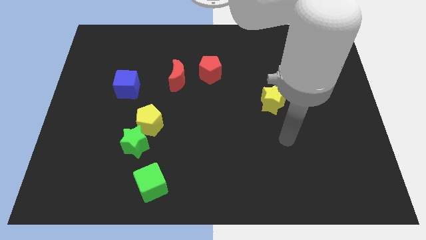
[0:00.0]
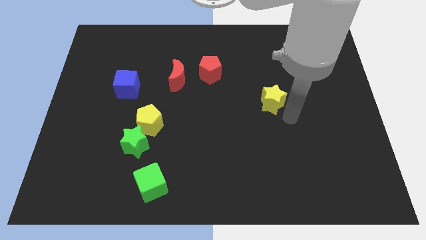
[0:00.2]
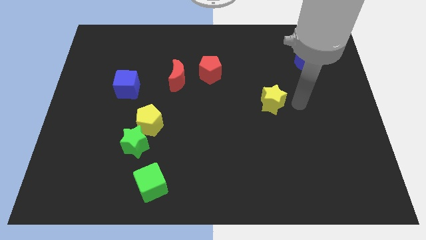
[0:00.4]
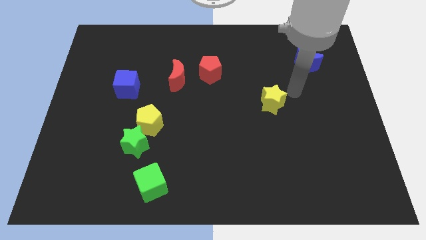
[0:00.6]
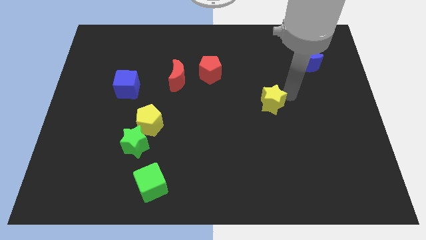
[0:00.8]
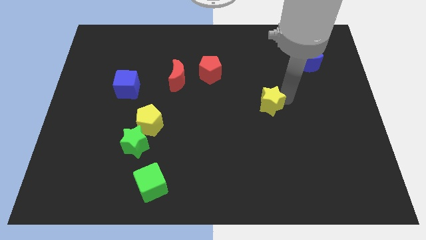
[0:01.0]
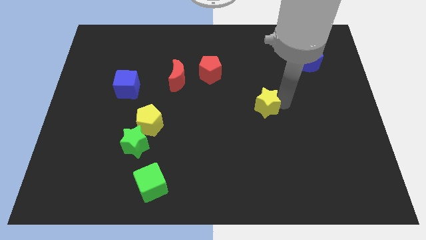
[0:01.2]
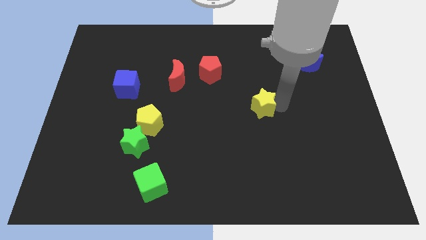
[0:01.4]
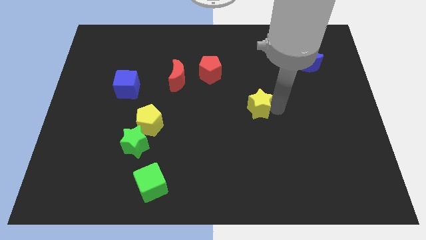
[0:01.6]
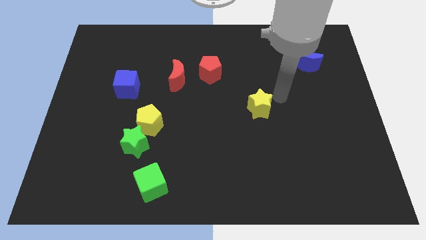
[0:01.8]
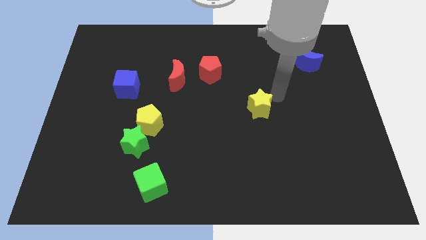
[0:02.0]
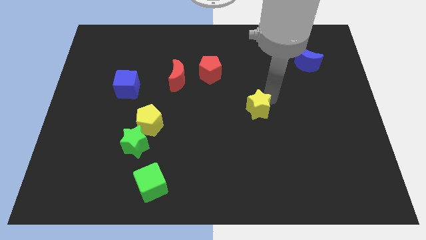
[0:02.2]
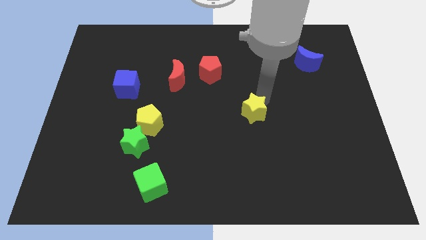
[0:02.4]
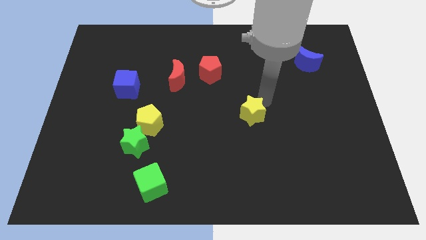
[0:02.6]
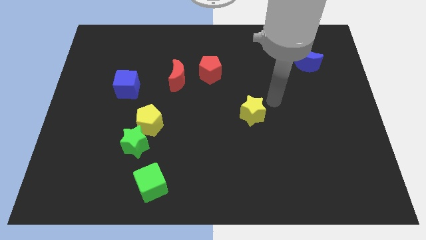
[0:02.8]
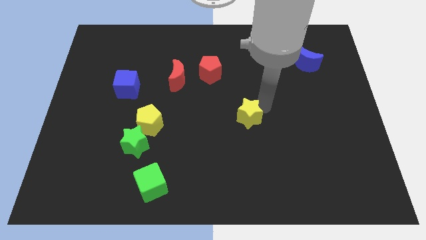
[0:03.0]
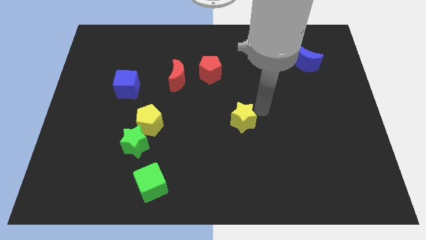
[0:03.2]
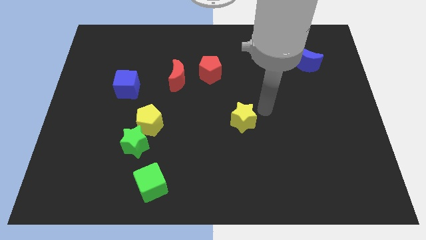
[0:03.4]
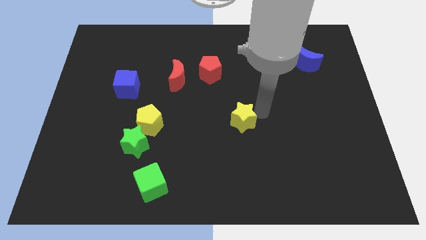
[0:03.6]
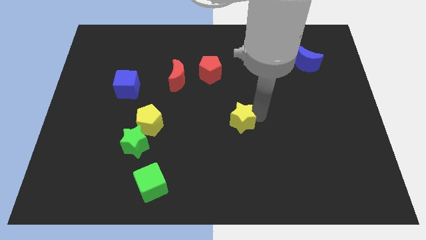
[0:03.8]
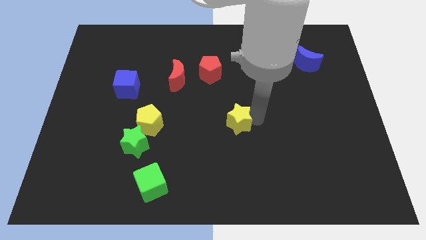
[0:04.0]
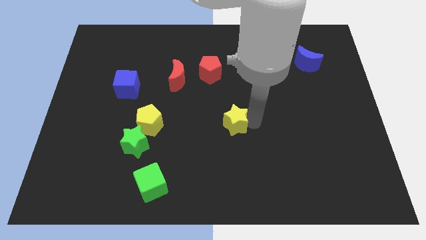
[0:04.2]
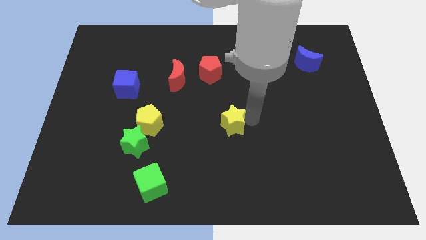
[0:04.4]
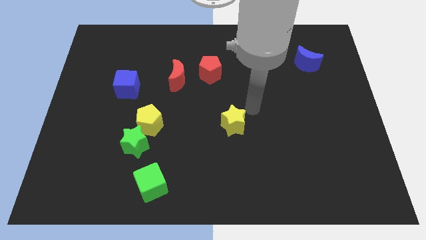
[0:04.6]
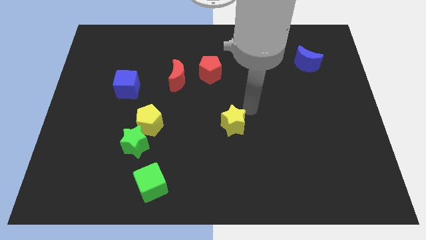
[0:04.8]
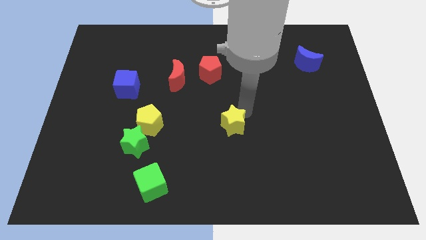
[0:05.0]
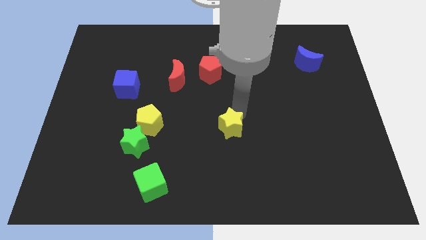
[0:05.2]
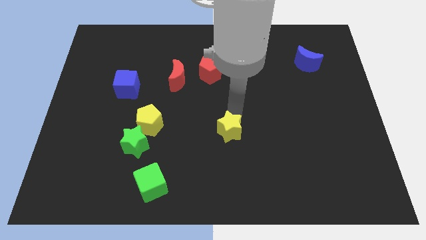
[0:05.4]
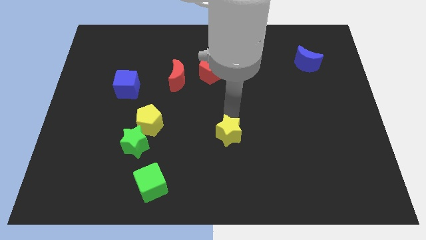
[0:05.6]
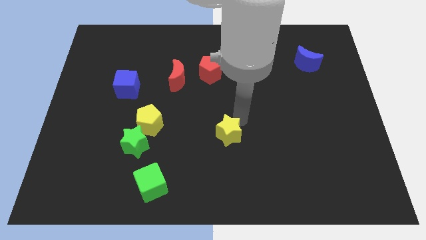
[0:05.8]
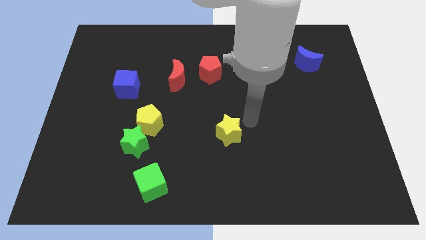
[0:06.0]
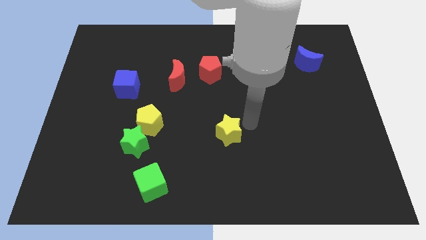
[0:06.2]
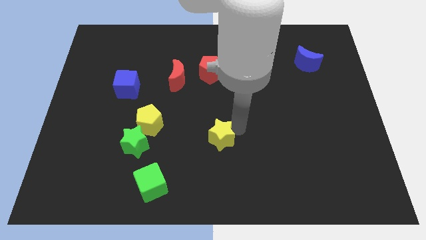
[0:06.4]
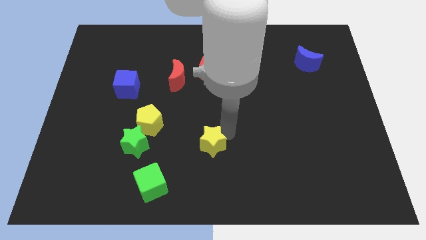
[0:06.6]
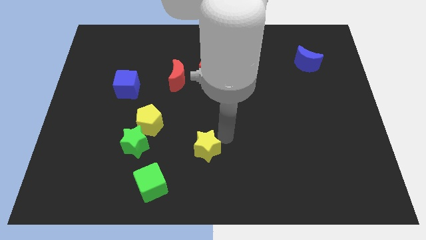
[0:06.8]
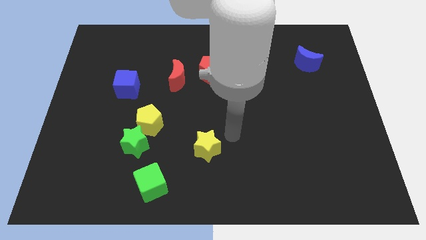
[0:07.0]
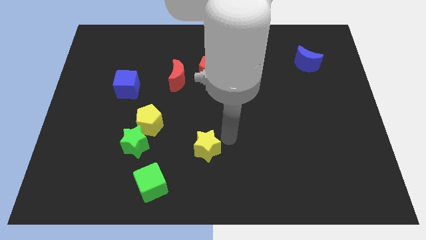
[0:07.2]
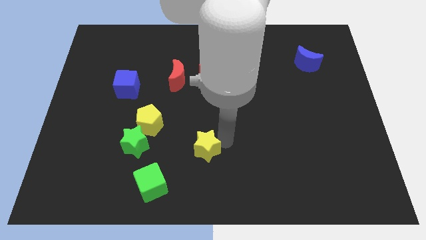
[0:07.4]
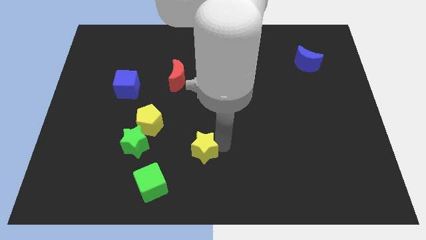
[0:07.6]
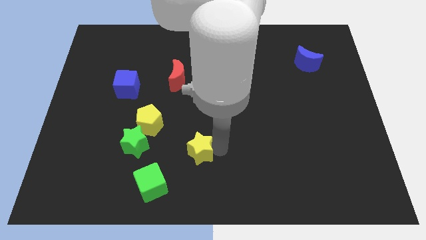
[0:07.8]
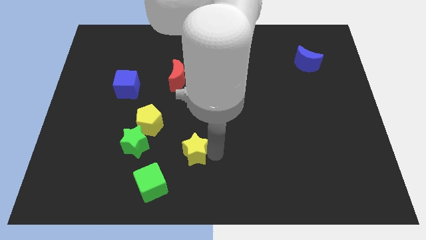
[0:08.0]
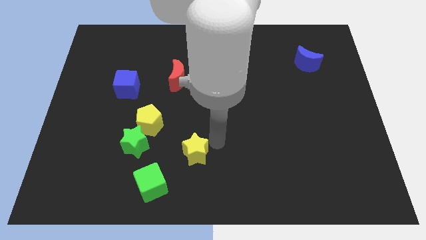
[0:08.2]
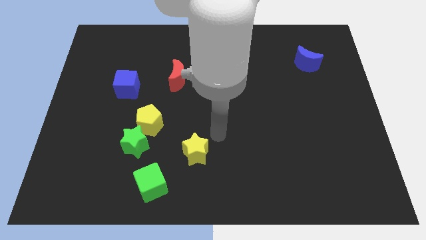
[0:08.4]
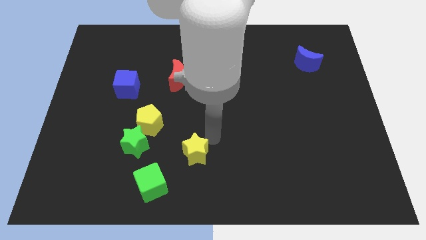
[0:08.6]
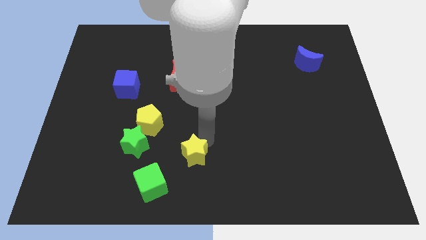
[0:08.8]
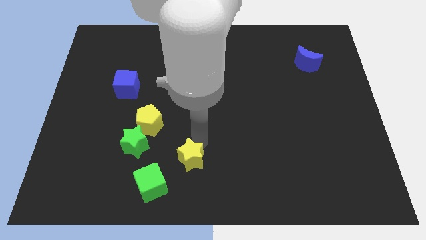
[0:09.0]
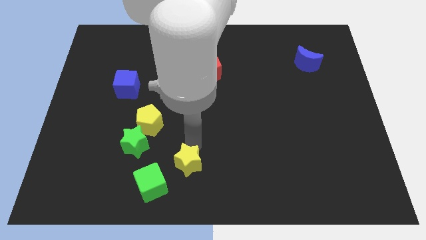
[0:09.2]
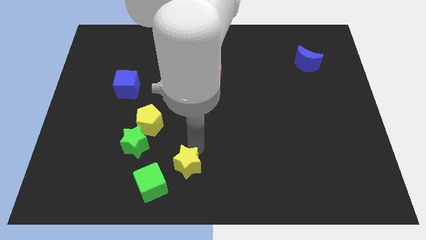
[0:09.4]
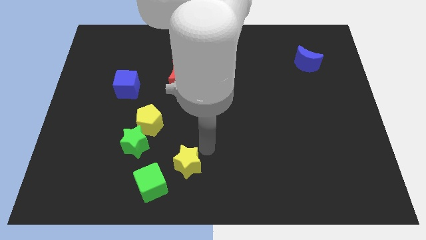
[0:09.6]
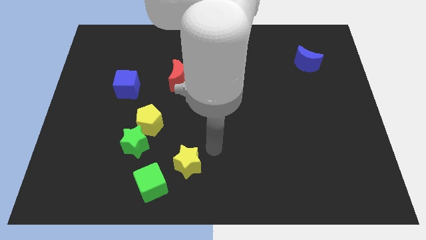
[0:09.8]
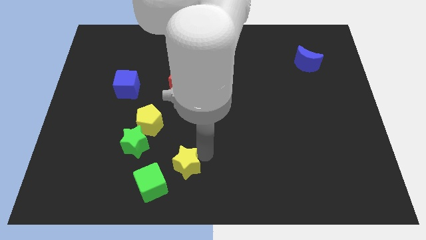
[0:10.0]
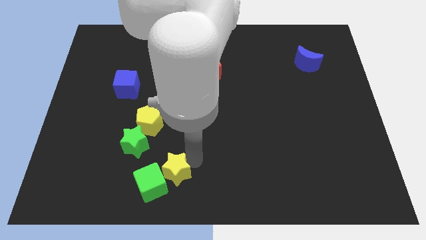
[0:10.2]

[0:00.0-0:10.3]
move the yellow star next to the green cube
